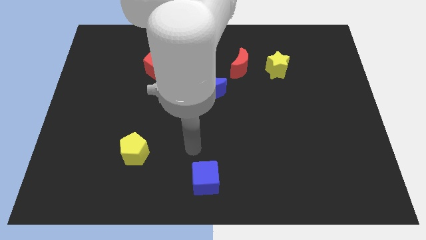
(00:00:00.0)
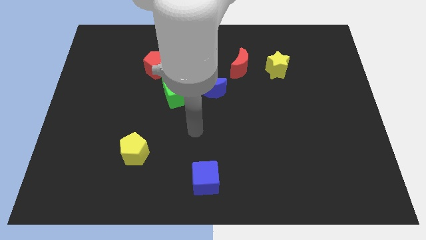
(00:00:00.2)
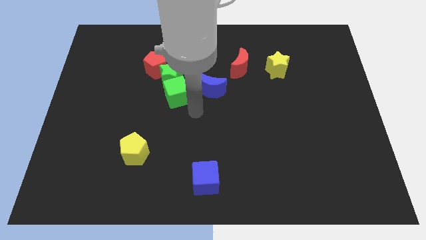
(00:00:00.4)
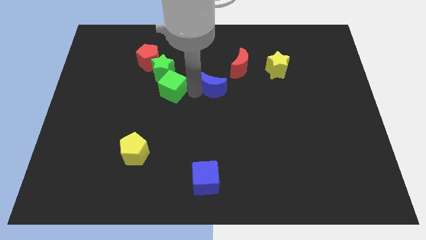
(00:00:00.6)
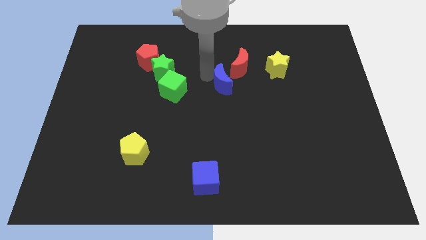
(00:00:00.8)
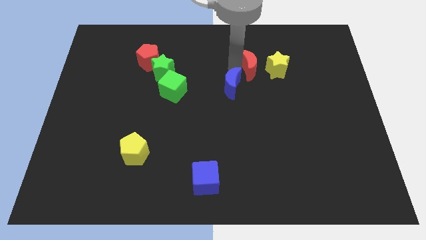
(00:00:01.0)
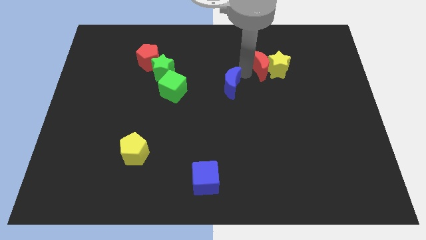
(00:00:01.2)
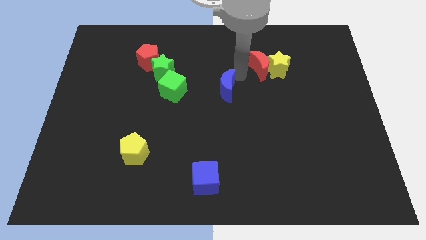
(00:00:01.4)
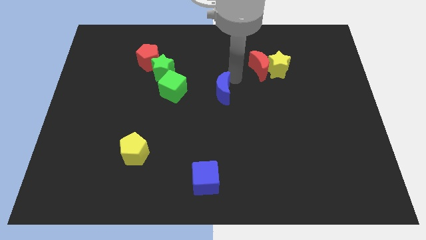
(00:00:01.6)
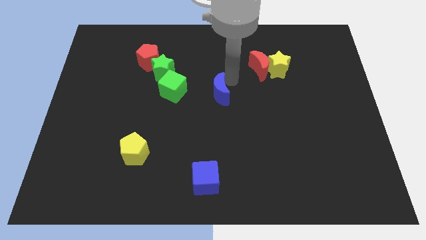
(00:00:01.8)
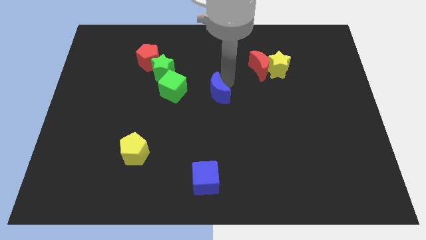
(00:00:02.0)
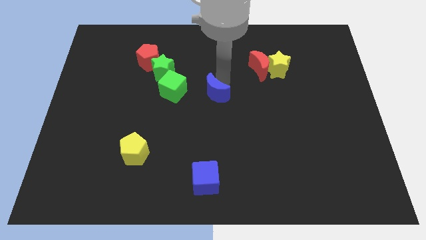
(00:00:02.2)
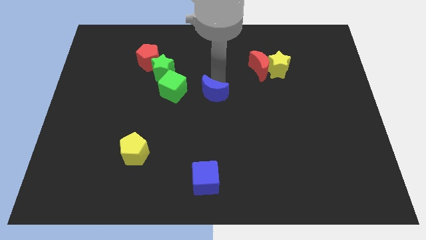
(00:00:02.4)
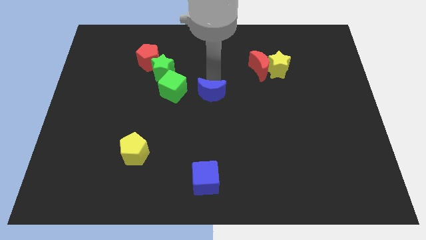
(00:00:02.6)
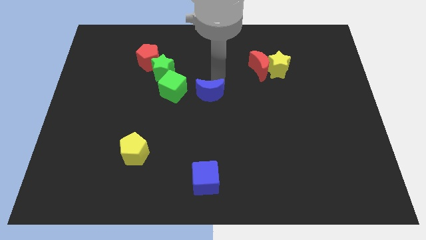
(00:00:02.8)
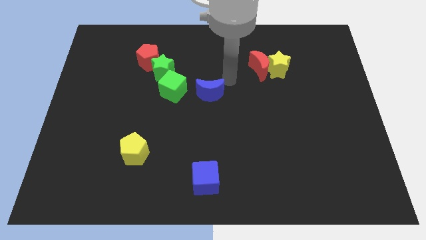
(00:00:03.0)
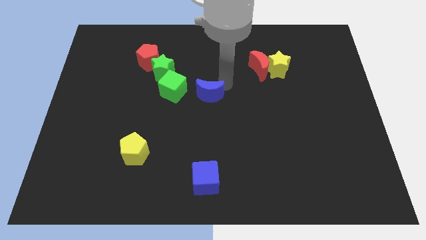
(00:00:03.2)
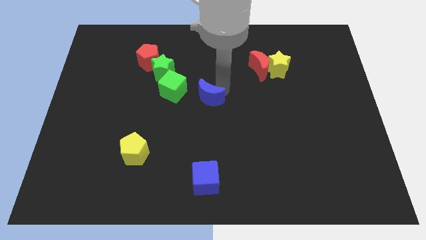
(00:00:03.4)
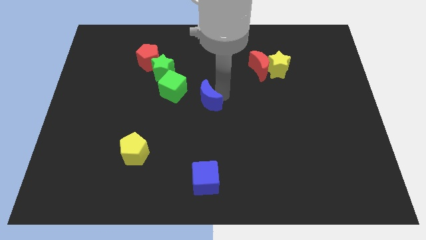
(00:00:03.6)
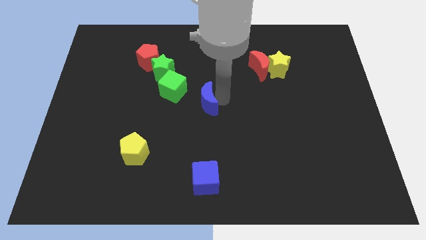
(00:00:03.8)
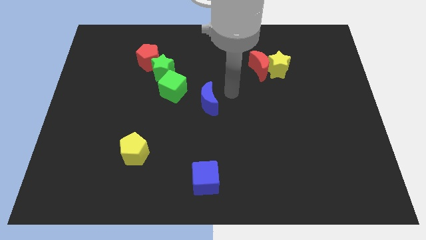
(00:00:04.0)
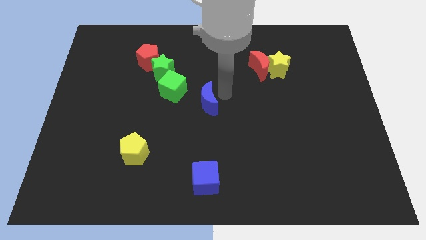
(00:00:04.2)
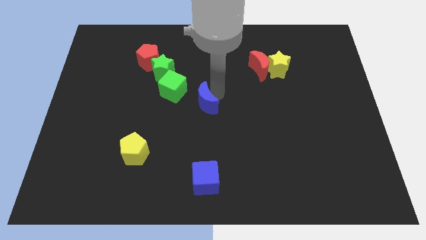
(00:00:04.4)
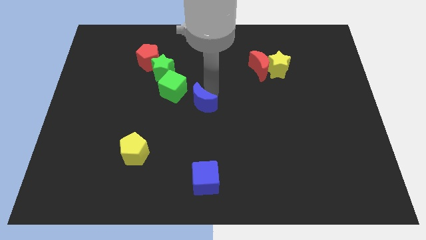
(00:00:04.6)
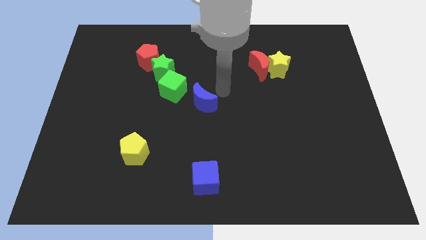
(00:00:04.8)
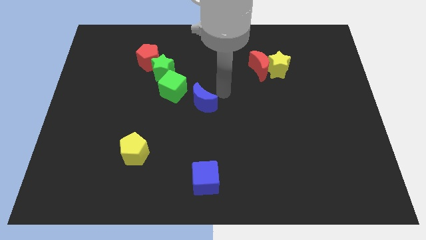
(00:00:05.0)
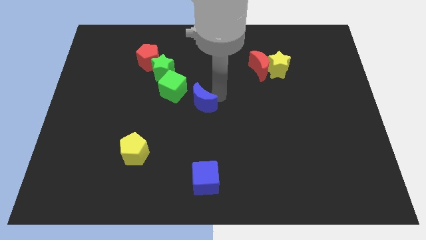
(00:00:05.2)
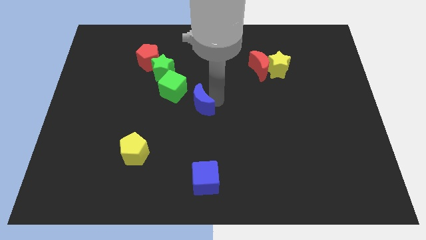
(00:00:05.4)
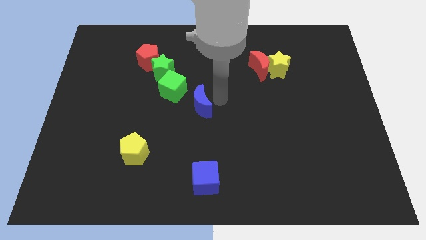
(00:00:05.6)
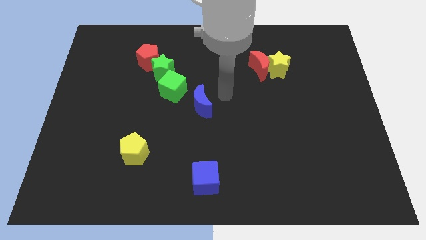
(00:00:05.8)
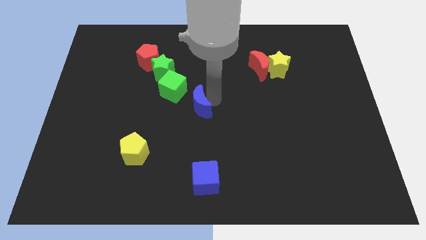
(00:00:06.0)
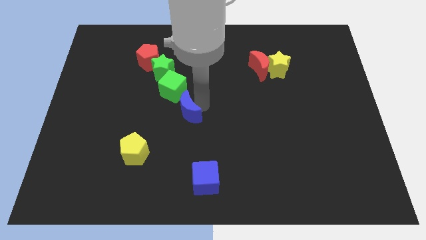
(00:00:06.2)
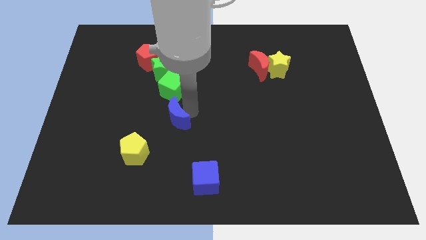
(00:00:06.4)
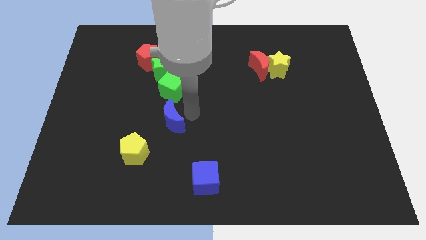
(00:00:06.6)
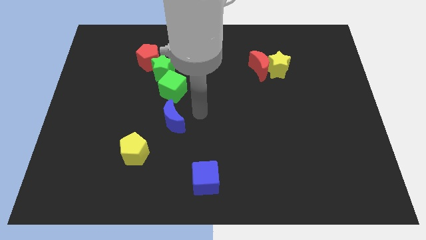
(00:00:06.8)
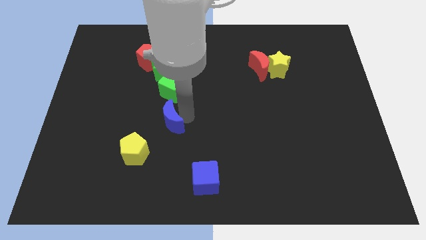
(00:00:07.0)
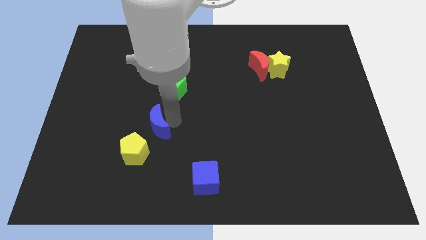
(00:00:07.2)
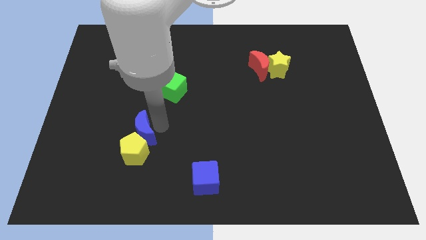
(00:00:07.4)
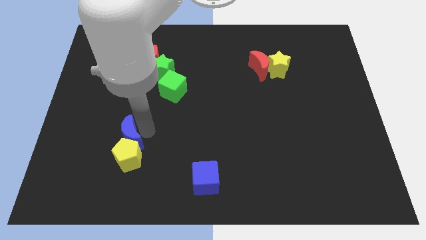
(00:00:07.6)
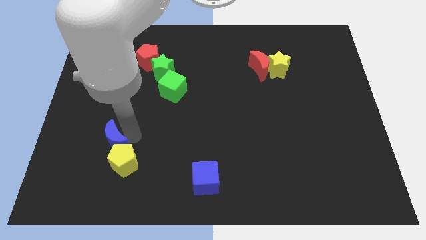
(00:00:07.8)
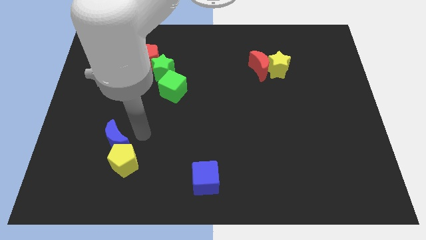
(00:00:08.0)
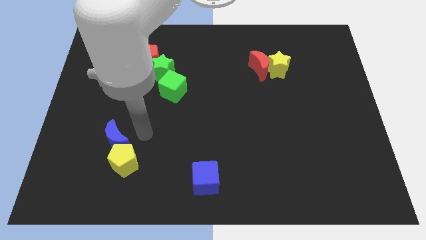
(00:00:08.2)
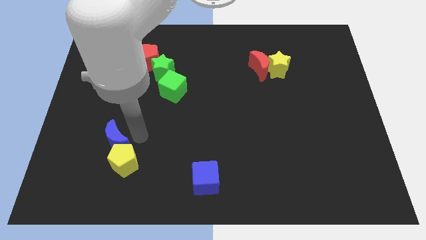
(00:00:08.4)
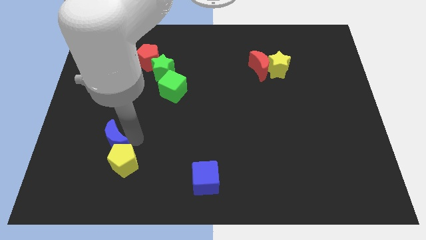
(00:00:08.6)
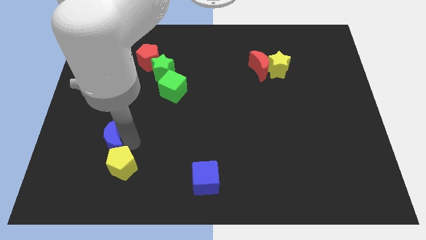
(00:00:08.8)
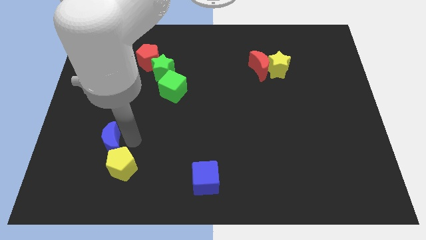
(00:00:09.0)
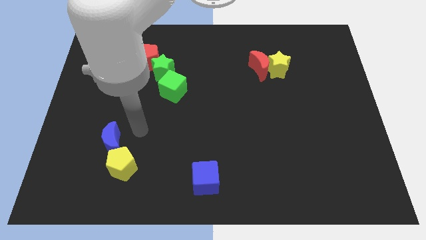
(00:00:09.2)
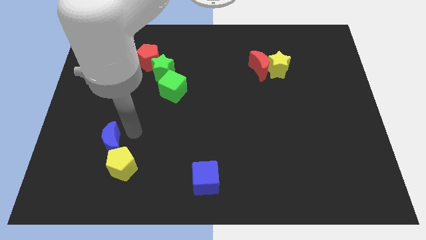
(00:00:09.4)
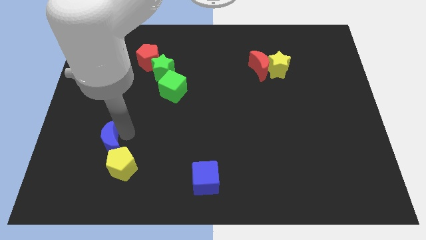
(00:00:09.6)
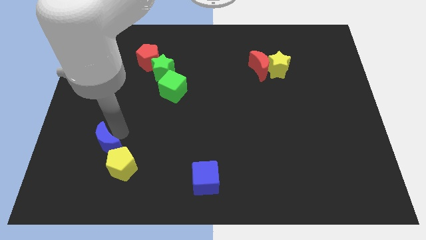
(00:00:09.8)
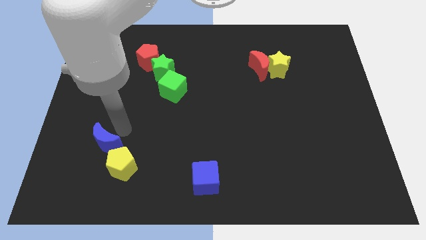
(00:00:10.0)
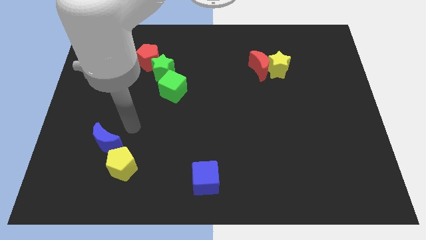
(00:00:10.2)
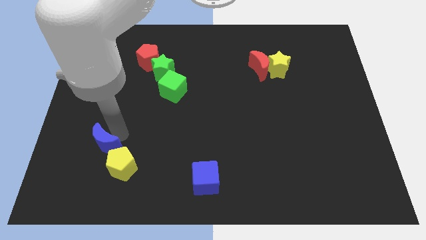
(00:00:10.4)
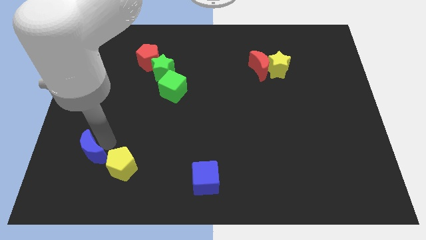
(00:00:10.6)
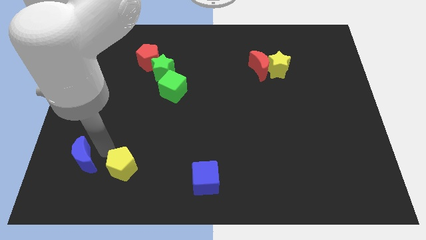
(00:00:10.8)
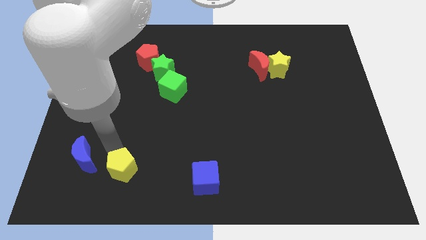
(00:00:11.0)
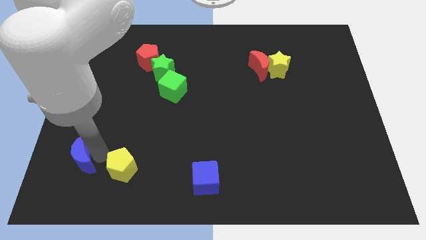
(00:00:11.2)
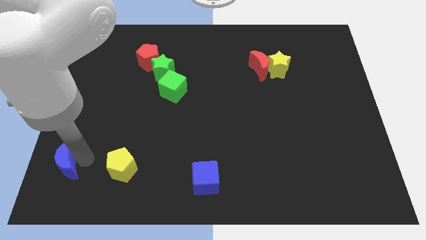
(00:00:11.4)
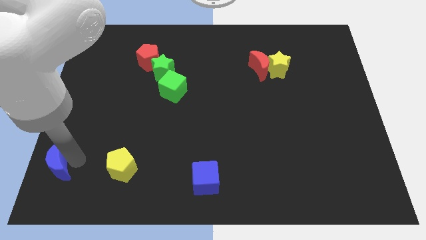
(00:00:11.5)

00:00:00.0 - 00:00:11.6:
slide the blue moon to the bottom left of the board

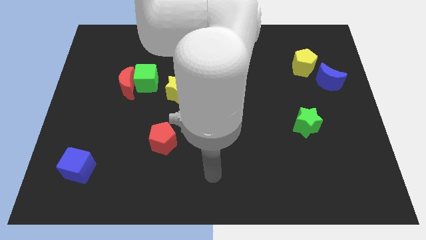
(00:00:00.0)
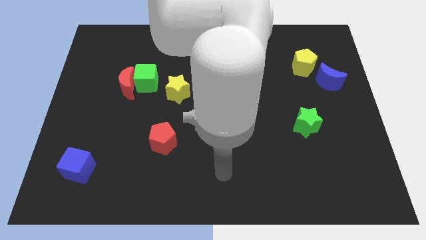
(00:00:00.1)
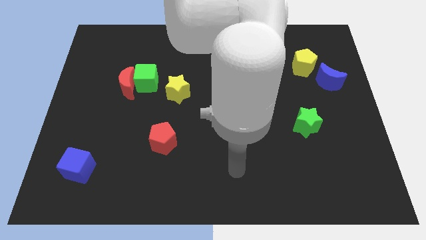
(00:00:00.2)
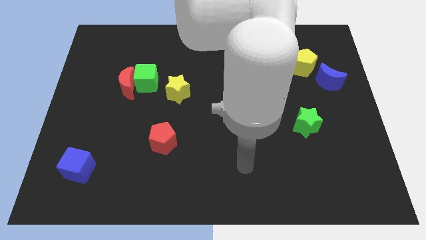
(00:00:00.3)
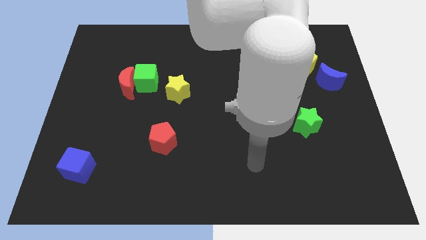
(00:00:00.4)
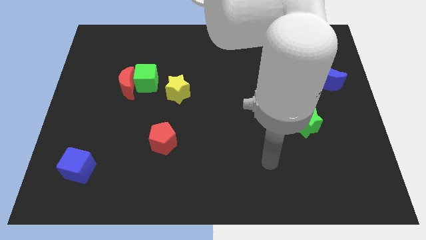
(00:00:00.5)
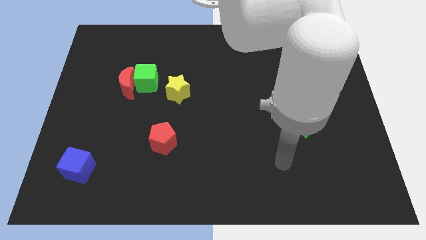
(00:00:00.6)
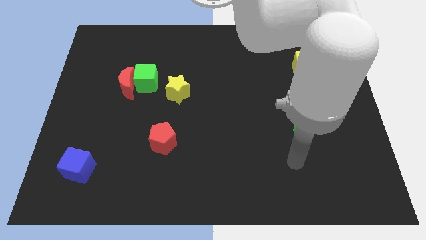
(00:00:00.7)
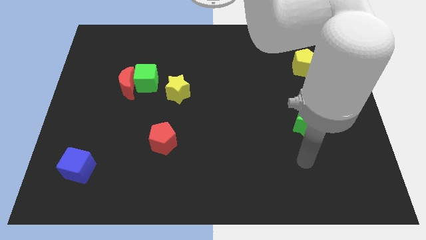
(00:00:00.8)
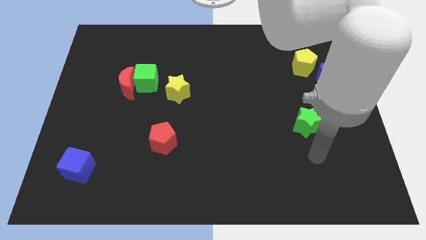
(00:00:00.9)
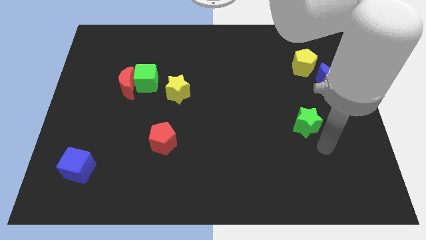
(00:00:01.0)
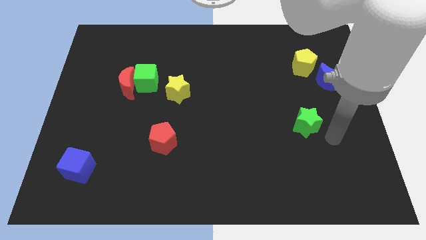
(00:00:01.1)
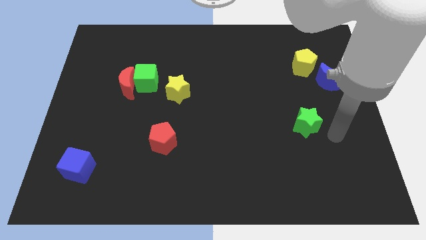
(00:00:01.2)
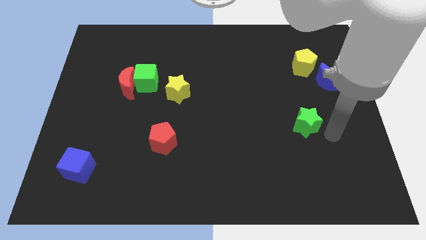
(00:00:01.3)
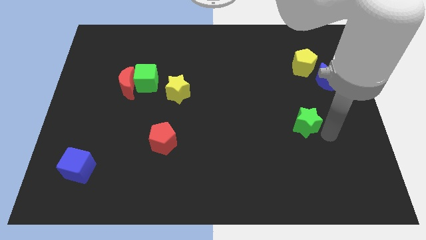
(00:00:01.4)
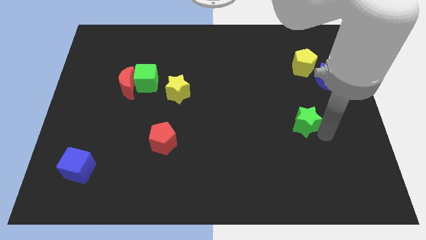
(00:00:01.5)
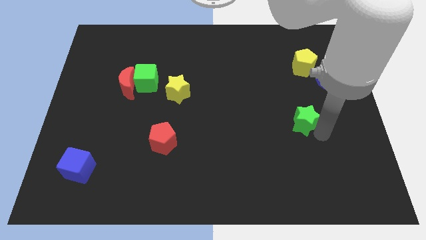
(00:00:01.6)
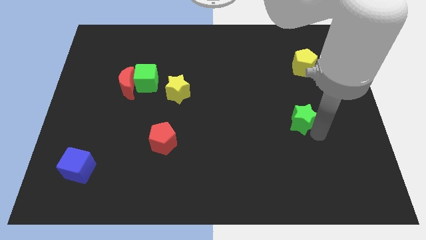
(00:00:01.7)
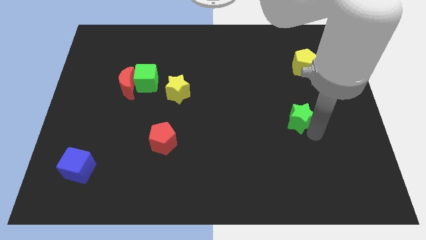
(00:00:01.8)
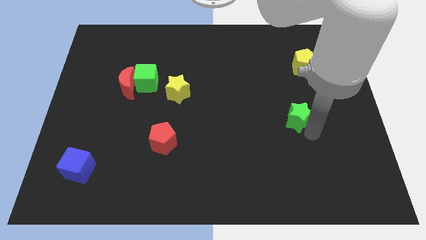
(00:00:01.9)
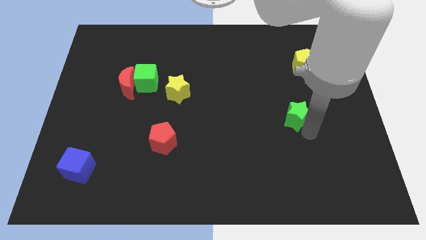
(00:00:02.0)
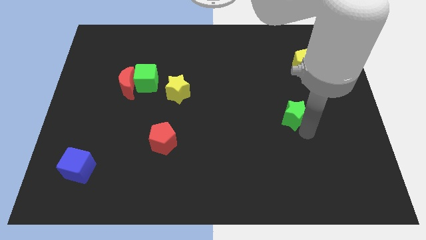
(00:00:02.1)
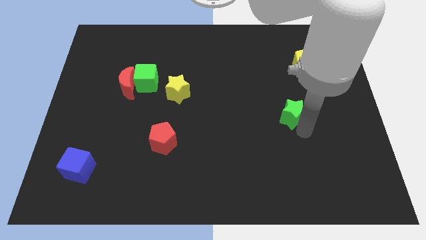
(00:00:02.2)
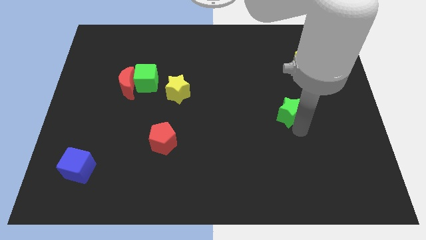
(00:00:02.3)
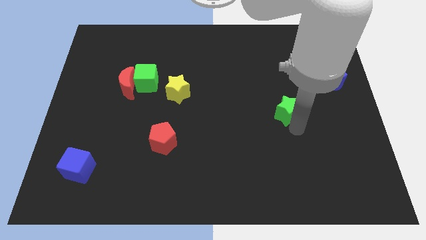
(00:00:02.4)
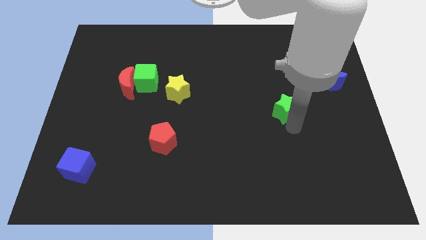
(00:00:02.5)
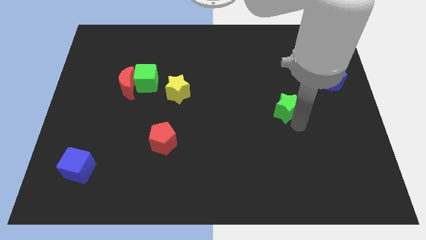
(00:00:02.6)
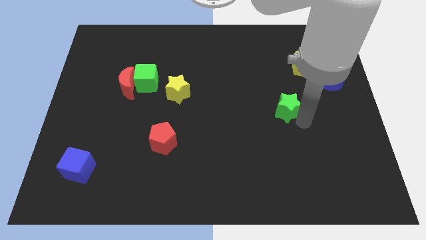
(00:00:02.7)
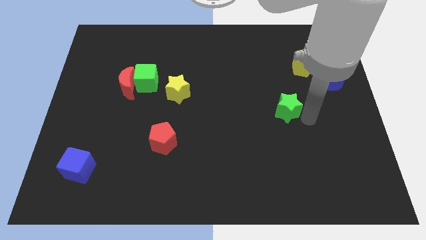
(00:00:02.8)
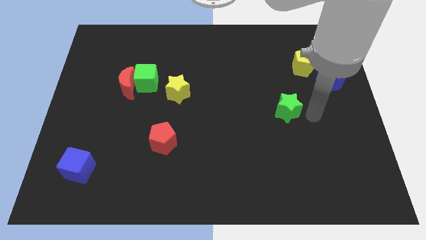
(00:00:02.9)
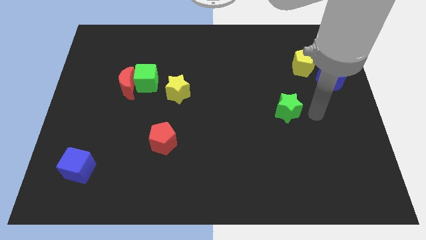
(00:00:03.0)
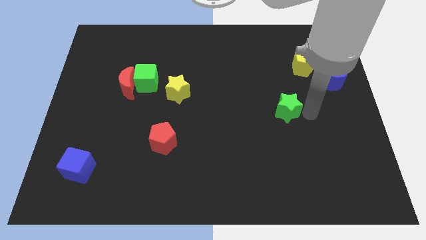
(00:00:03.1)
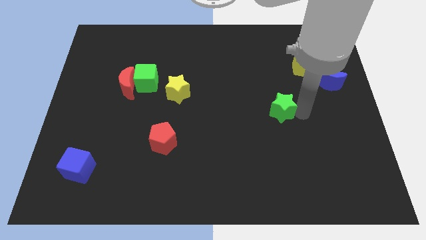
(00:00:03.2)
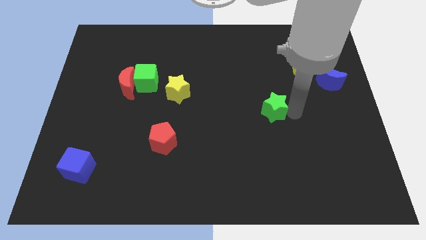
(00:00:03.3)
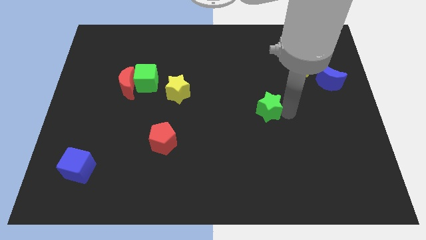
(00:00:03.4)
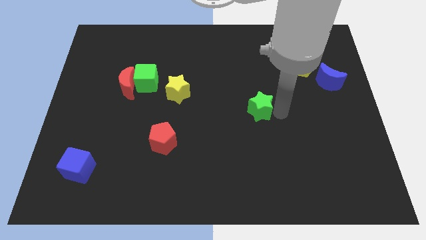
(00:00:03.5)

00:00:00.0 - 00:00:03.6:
move the green star to the middle of the board
